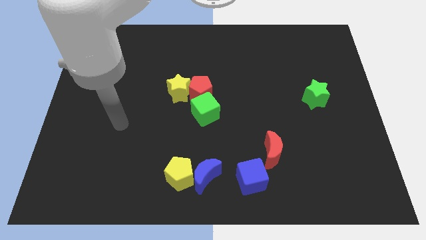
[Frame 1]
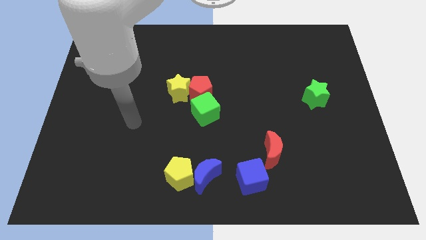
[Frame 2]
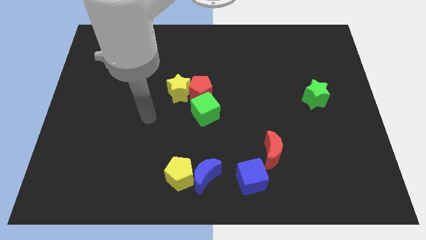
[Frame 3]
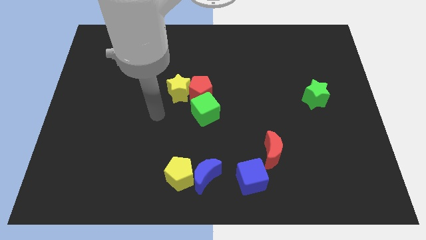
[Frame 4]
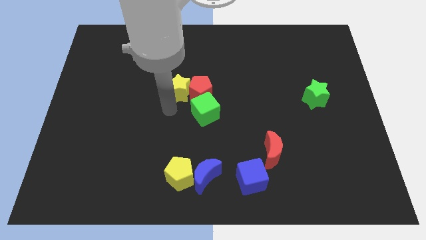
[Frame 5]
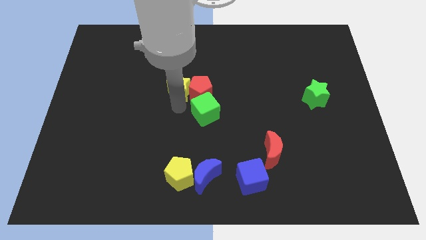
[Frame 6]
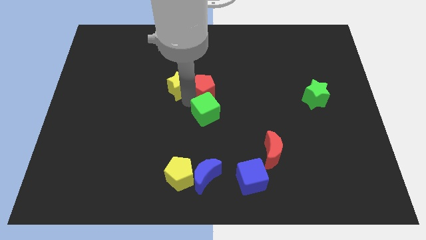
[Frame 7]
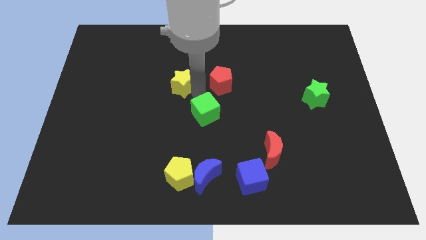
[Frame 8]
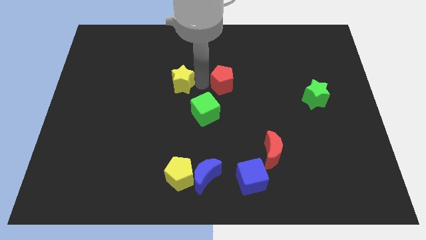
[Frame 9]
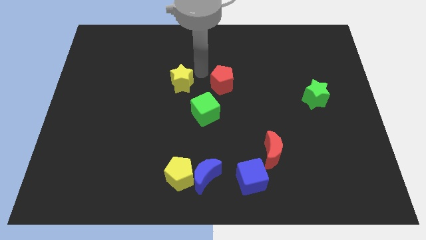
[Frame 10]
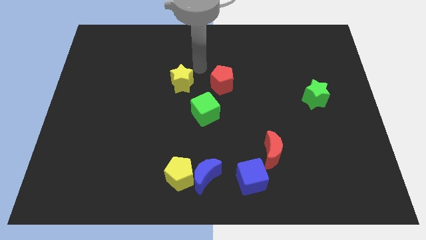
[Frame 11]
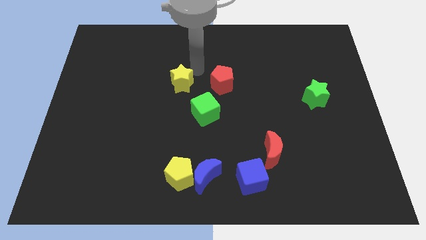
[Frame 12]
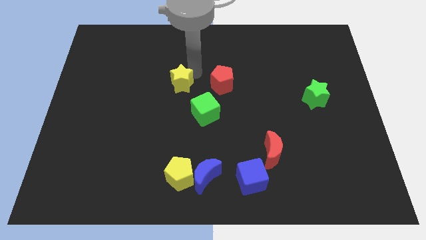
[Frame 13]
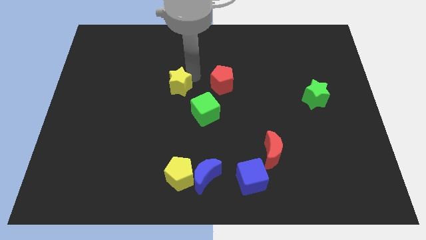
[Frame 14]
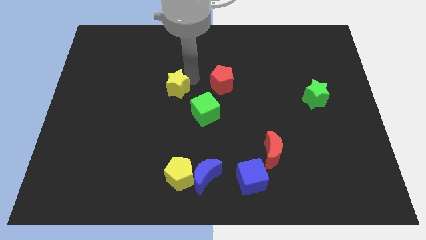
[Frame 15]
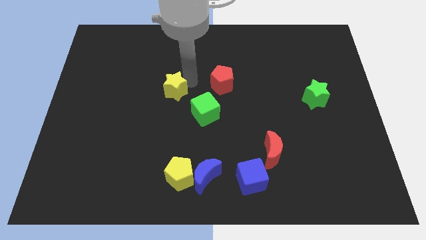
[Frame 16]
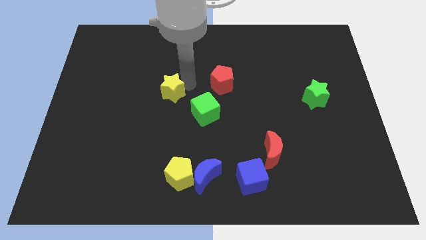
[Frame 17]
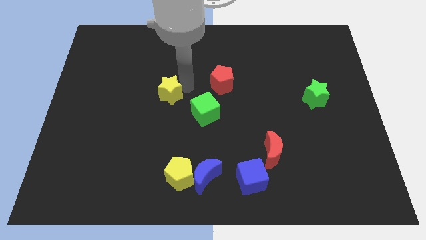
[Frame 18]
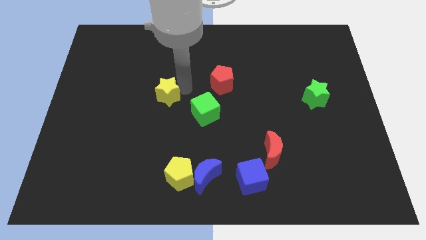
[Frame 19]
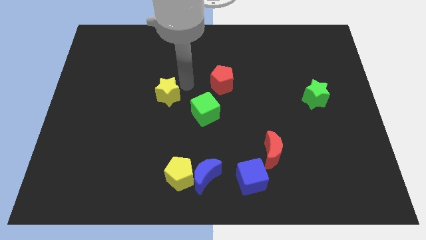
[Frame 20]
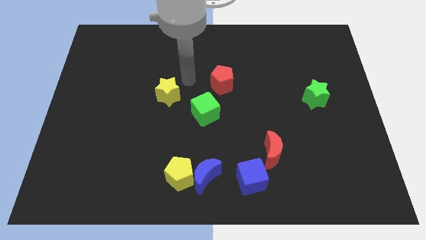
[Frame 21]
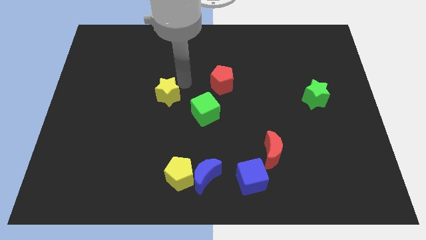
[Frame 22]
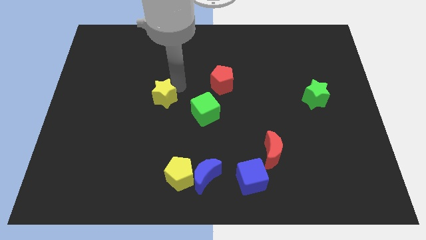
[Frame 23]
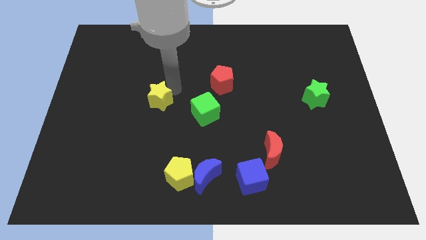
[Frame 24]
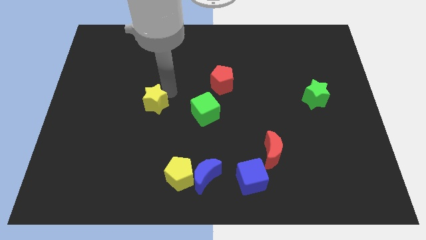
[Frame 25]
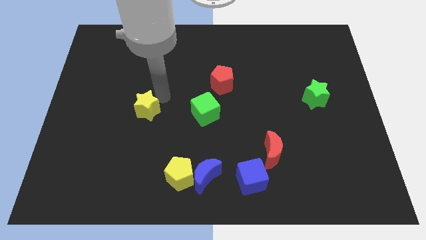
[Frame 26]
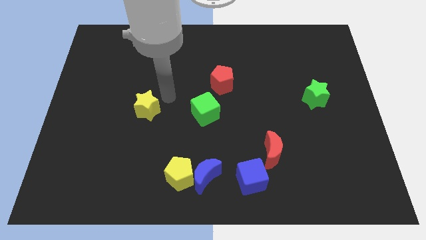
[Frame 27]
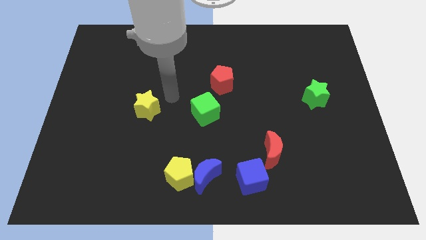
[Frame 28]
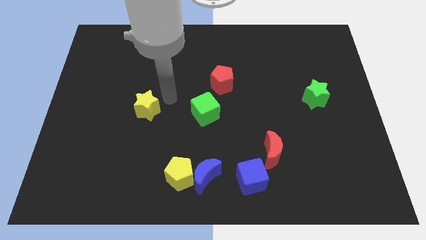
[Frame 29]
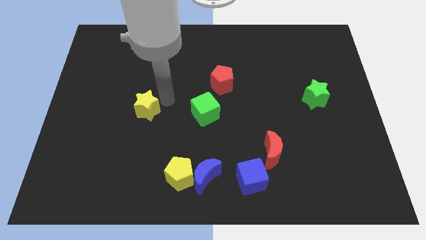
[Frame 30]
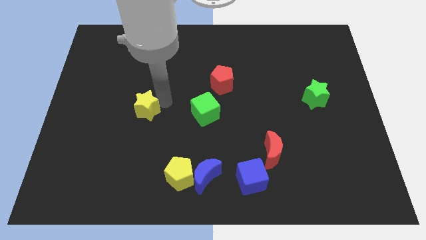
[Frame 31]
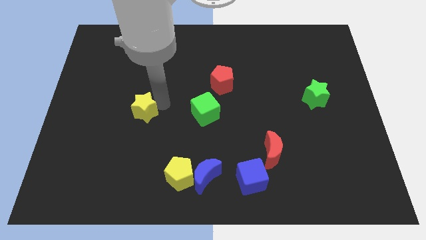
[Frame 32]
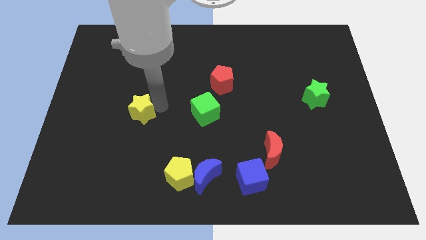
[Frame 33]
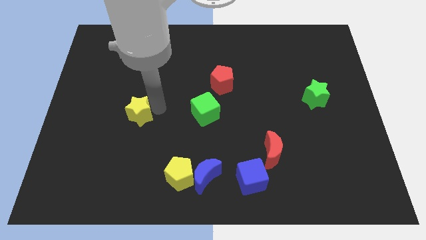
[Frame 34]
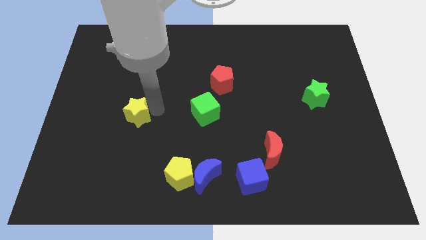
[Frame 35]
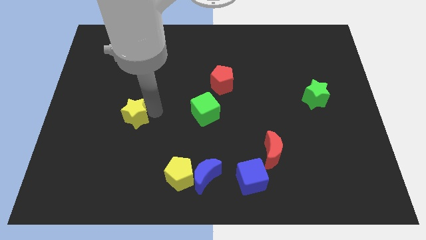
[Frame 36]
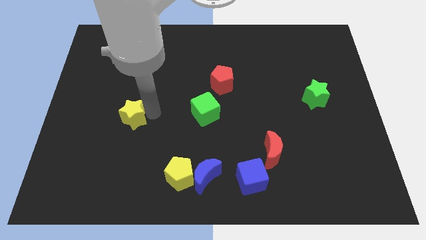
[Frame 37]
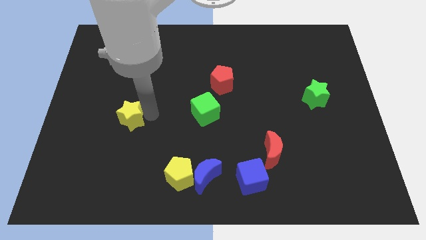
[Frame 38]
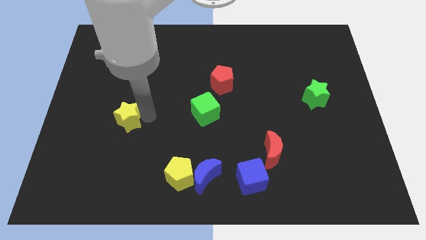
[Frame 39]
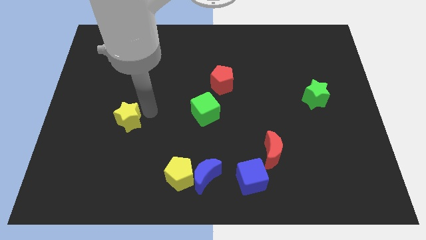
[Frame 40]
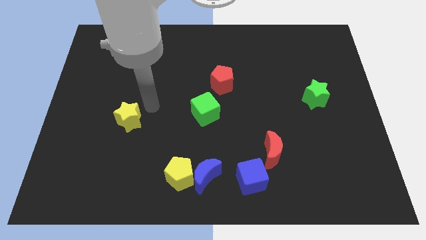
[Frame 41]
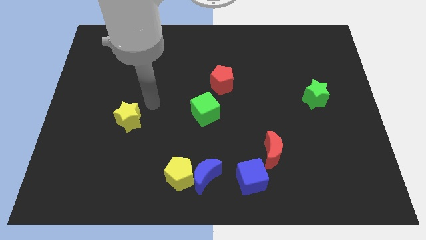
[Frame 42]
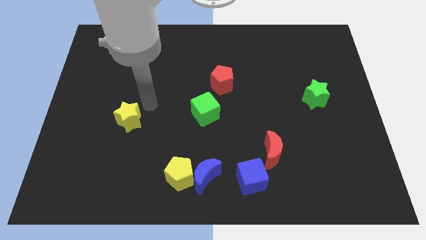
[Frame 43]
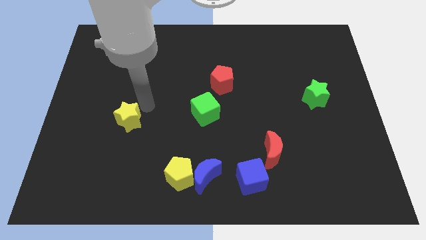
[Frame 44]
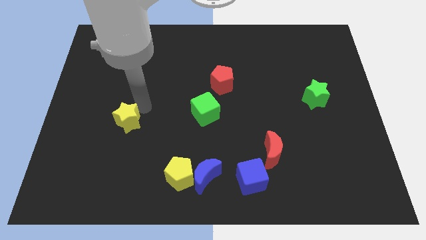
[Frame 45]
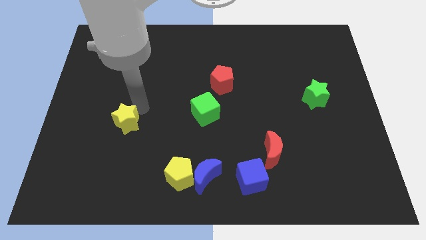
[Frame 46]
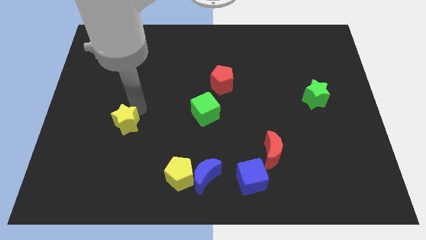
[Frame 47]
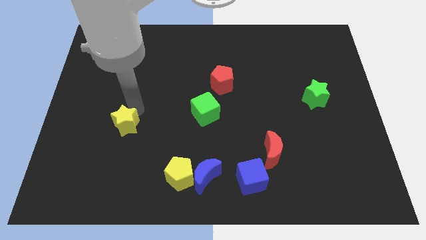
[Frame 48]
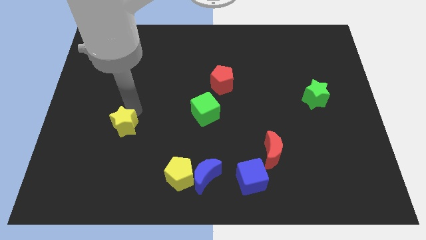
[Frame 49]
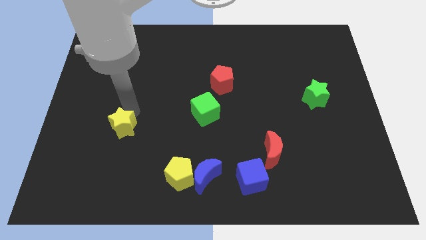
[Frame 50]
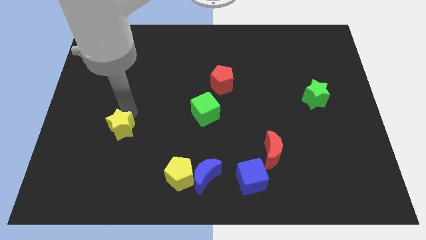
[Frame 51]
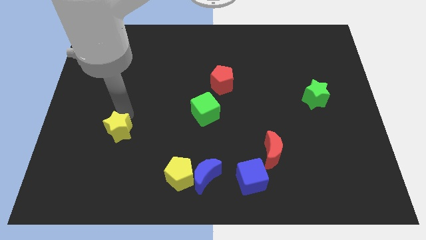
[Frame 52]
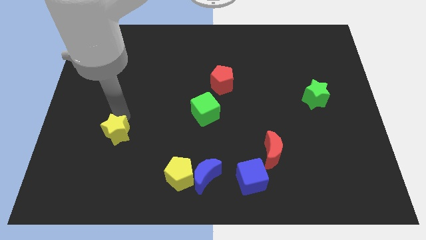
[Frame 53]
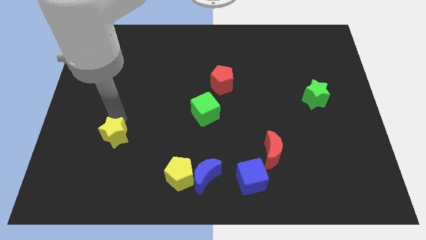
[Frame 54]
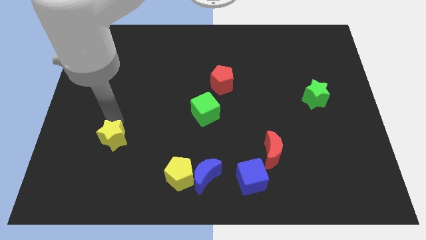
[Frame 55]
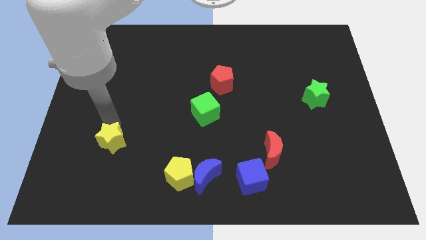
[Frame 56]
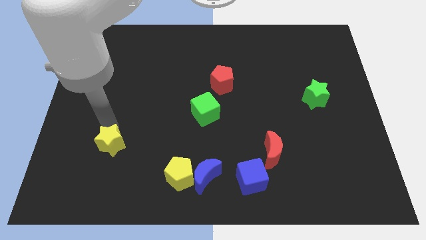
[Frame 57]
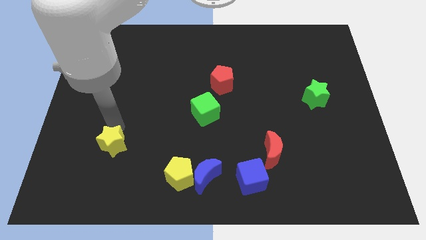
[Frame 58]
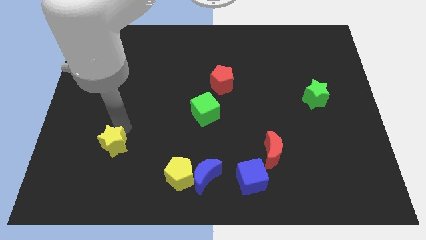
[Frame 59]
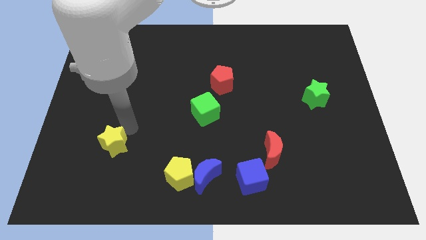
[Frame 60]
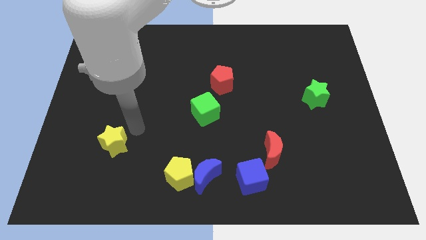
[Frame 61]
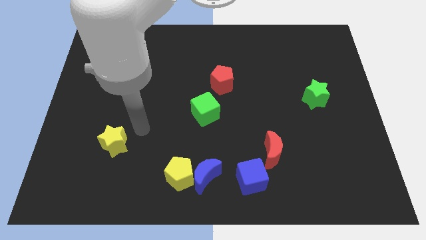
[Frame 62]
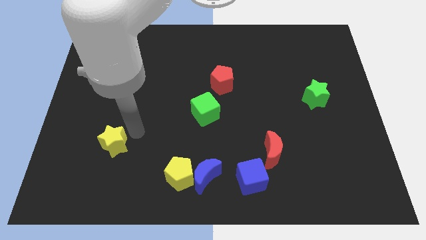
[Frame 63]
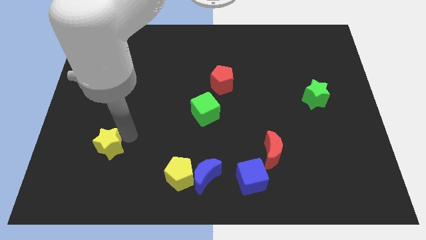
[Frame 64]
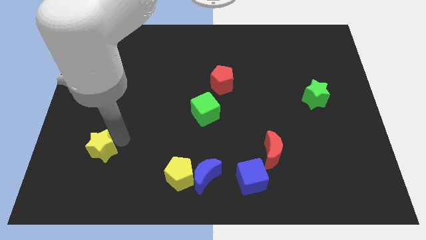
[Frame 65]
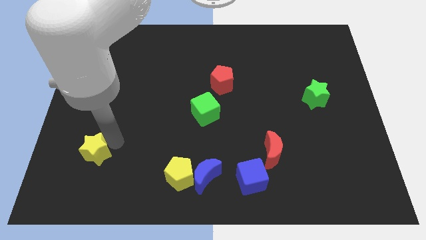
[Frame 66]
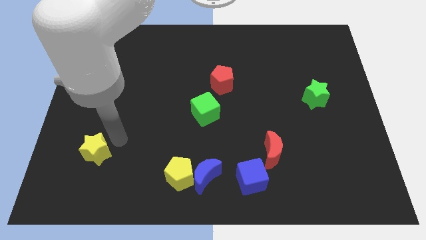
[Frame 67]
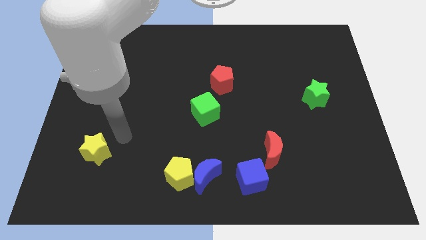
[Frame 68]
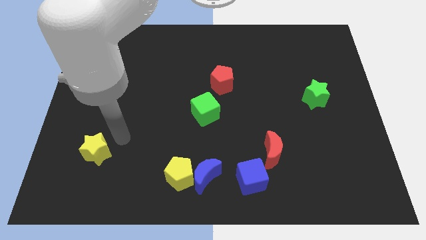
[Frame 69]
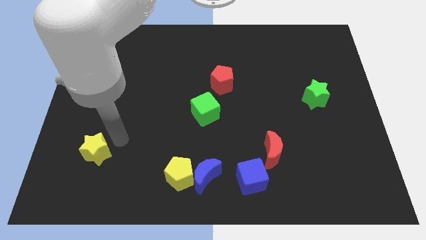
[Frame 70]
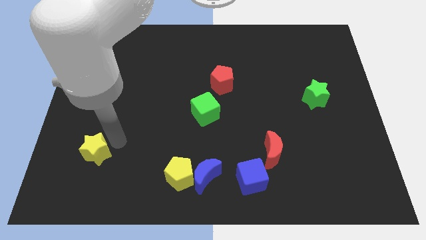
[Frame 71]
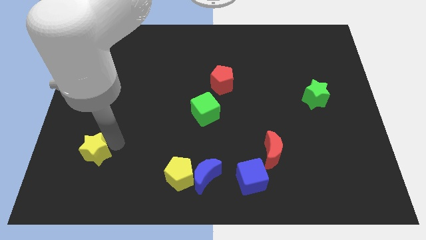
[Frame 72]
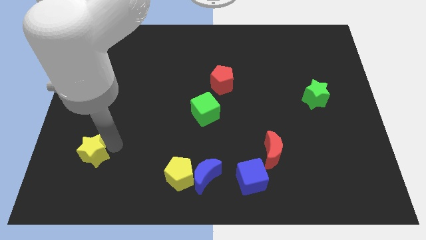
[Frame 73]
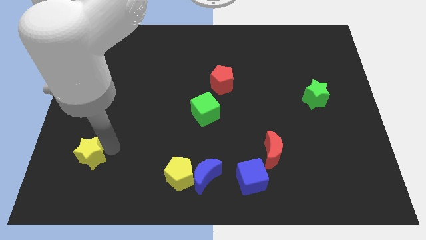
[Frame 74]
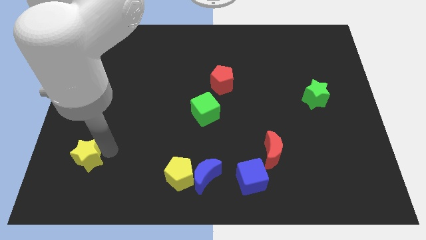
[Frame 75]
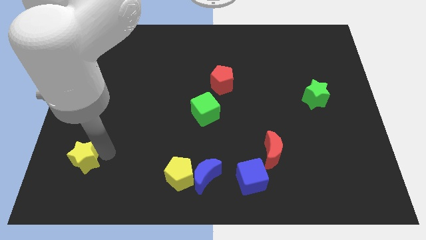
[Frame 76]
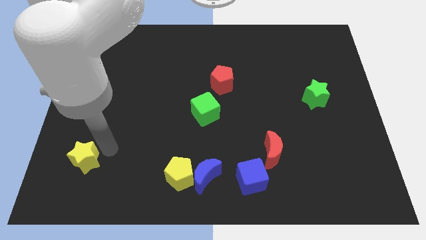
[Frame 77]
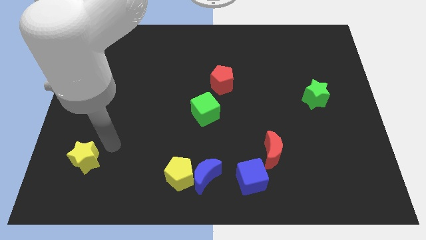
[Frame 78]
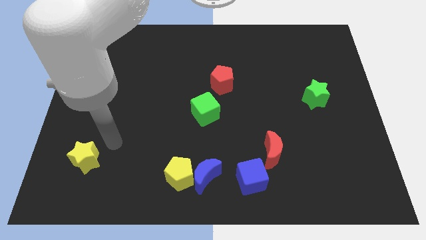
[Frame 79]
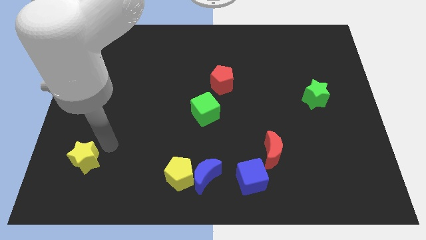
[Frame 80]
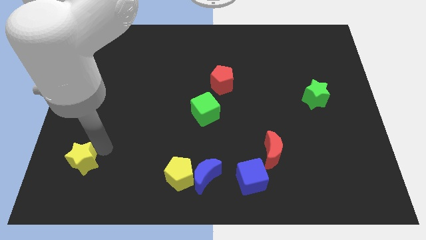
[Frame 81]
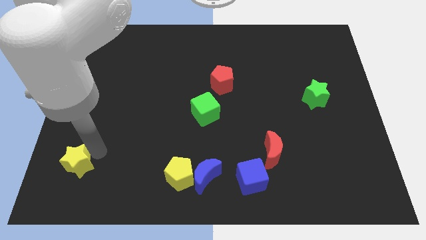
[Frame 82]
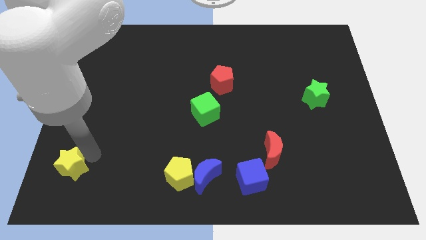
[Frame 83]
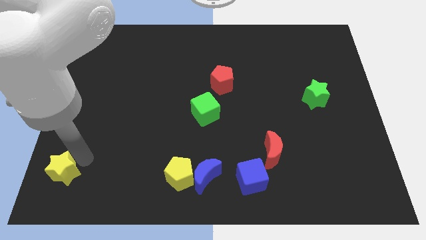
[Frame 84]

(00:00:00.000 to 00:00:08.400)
put the yellow star to the lower left corner

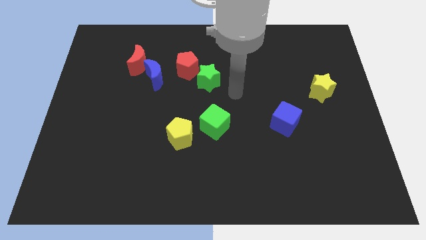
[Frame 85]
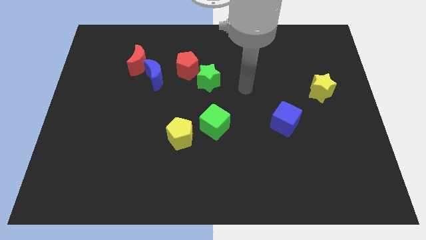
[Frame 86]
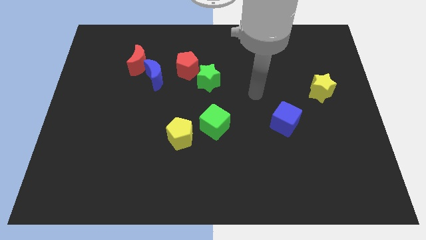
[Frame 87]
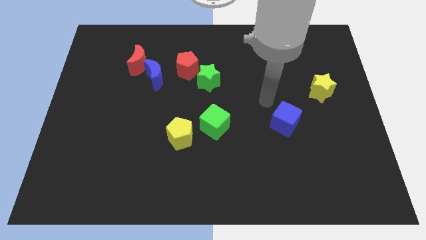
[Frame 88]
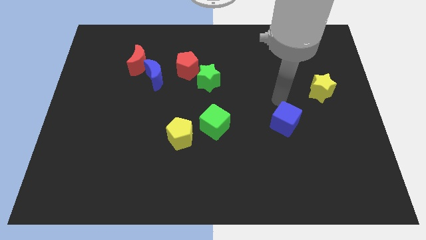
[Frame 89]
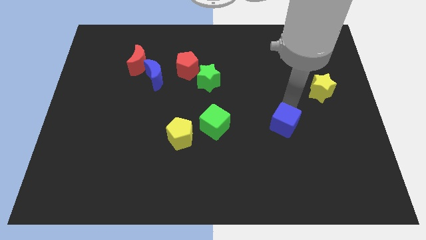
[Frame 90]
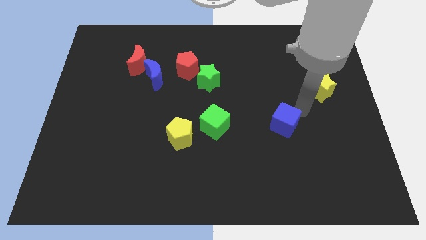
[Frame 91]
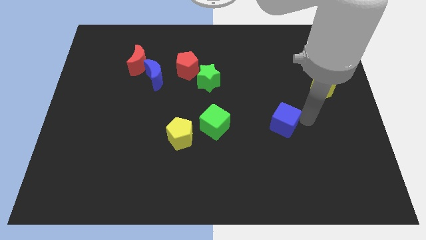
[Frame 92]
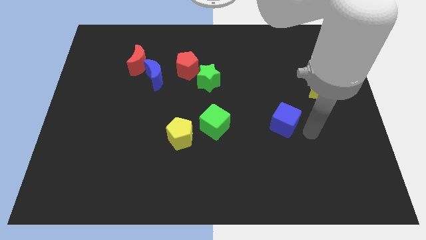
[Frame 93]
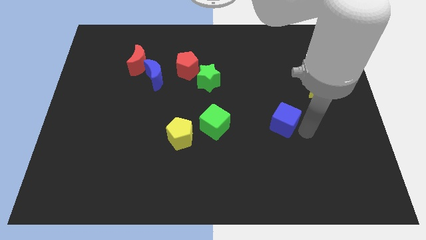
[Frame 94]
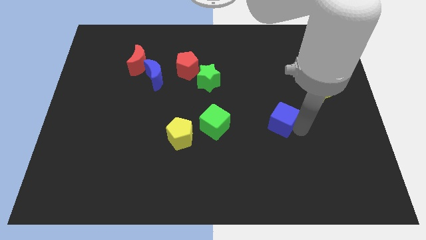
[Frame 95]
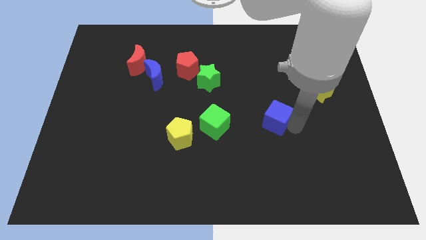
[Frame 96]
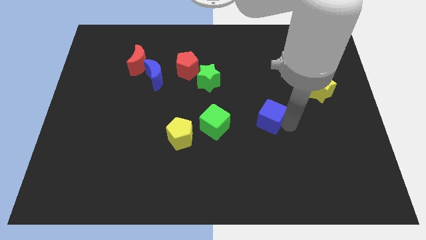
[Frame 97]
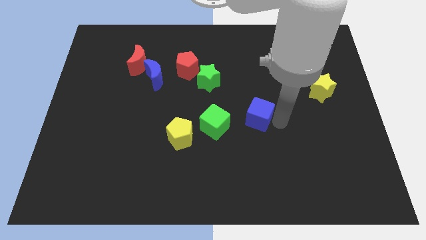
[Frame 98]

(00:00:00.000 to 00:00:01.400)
put the blue cube to the center of the board
